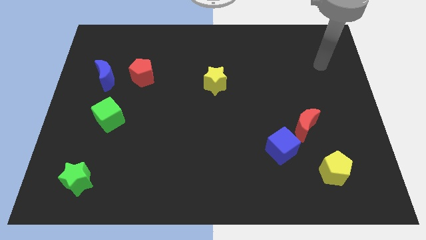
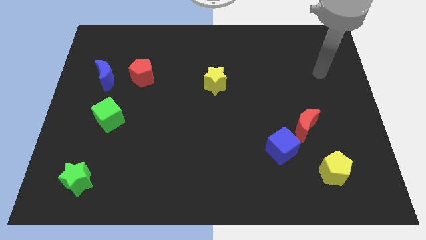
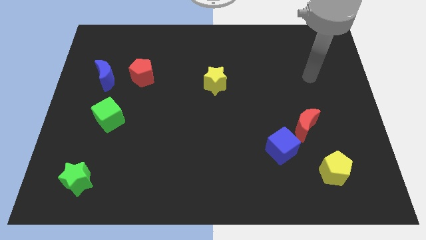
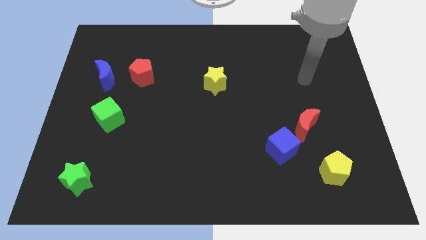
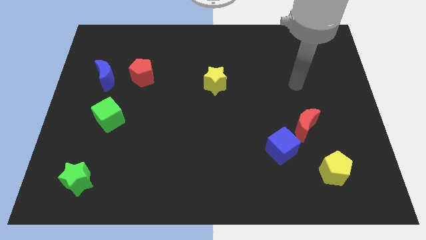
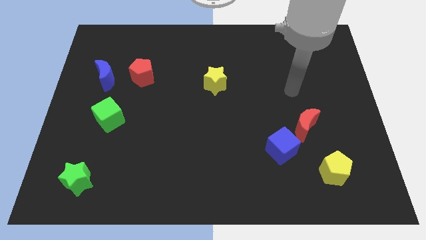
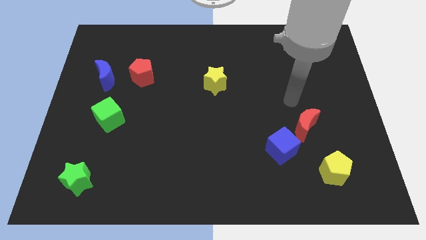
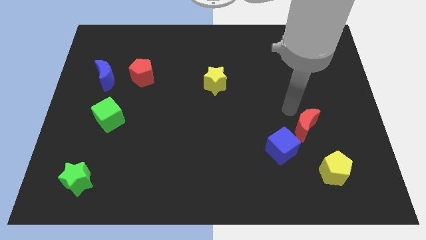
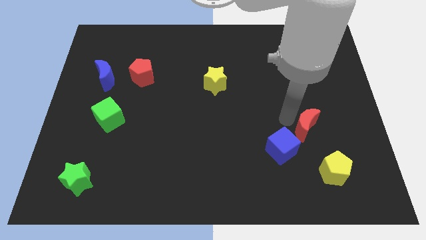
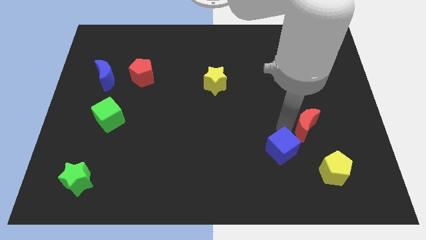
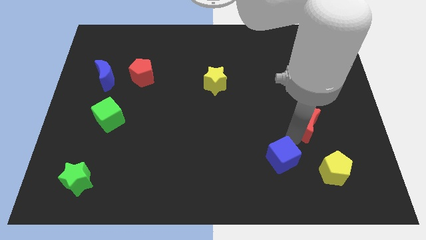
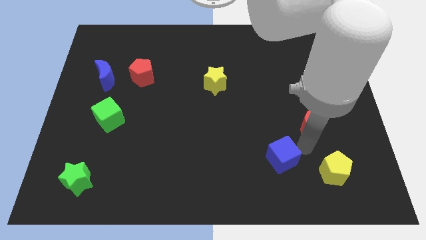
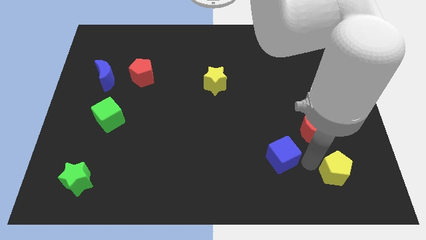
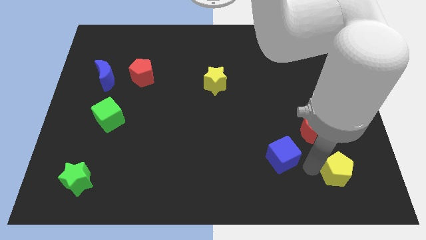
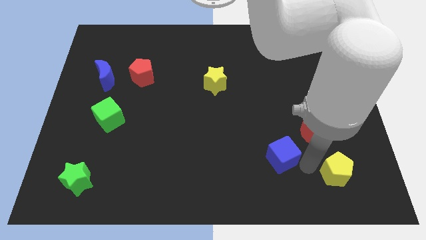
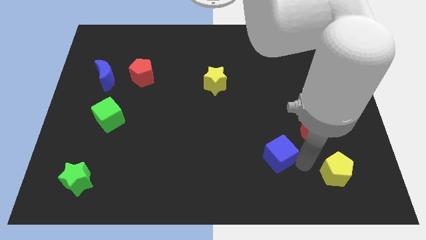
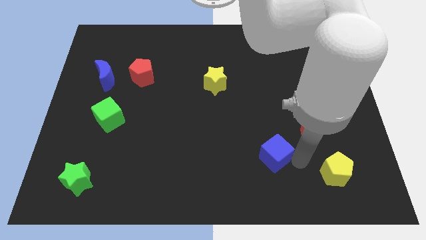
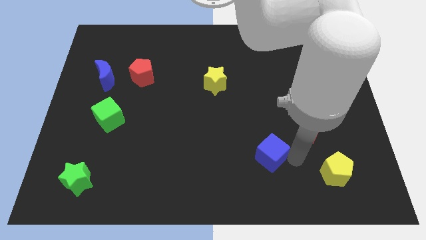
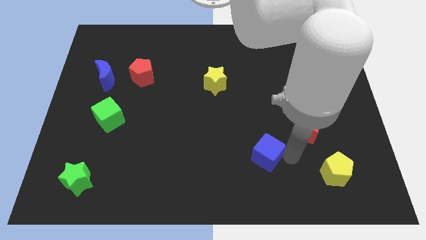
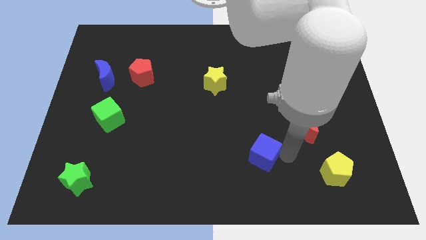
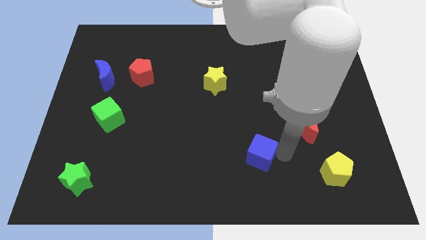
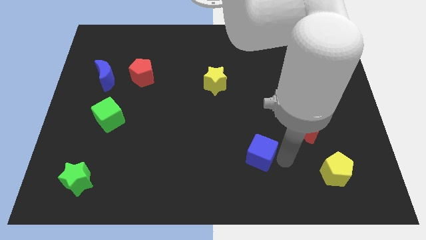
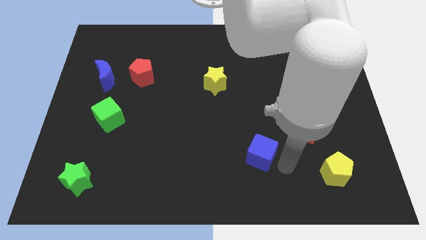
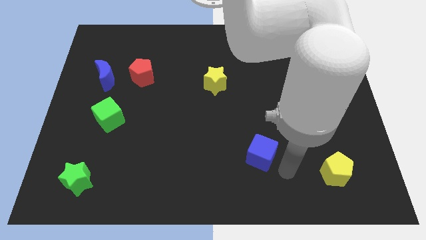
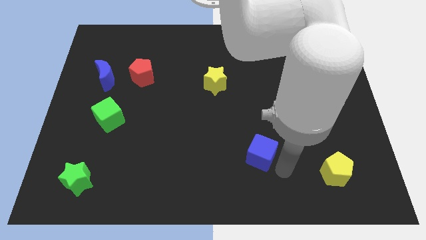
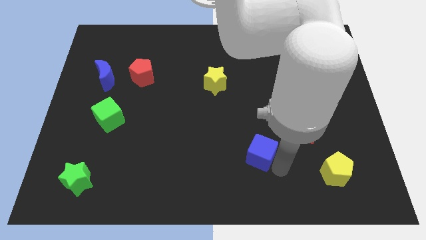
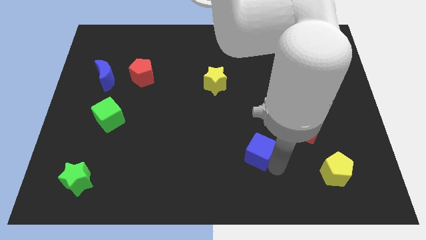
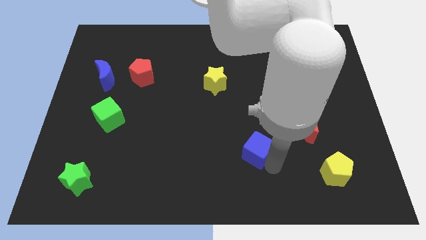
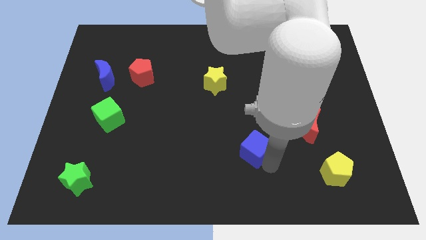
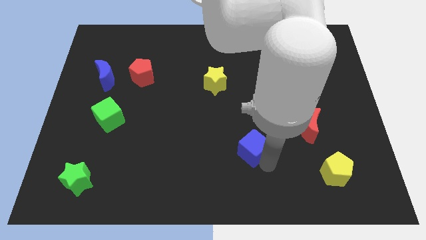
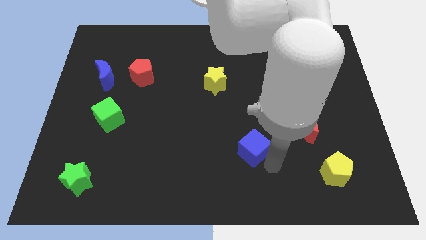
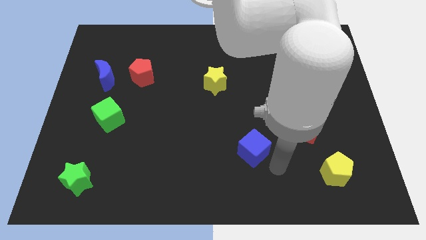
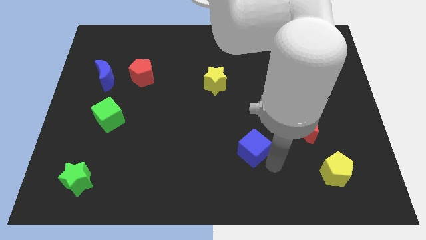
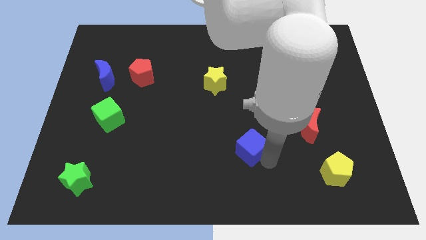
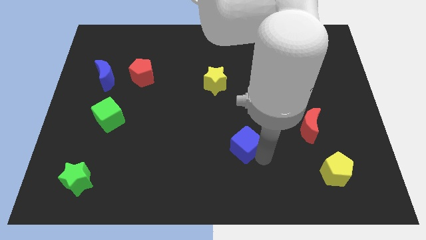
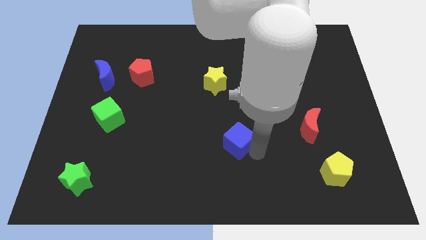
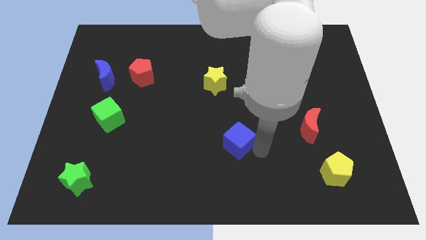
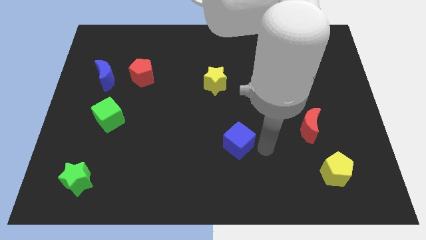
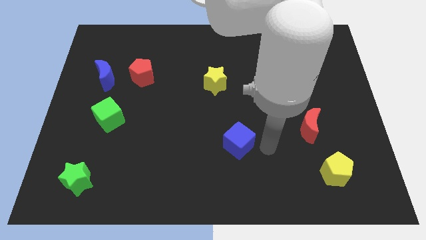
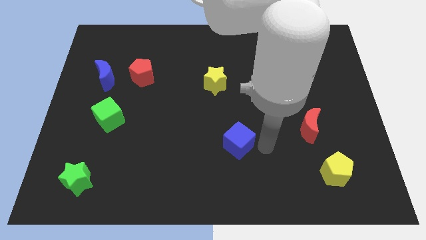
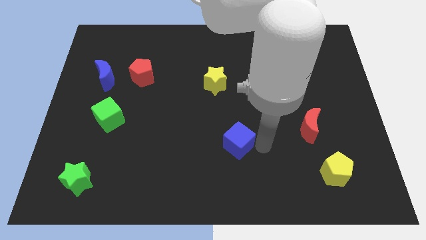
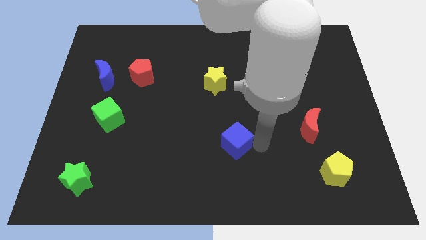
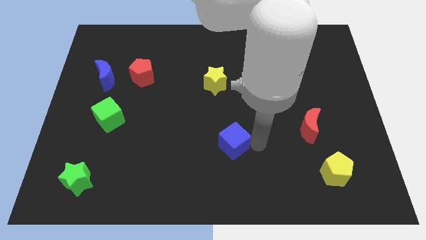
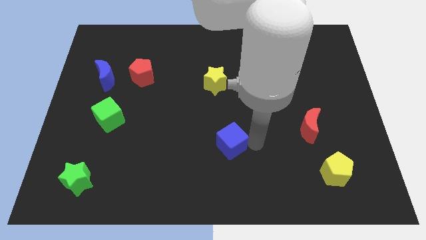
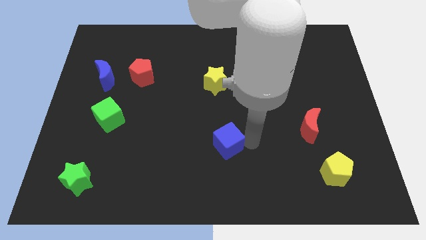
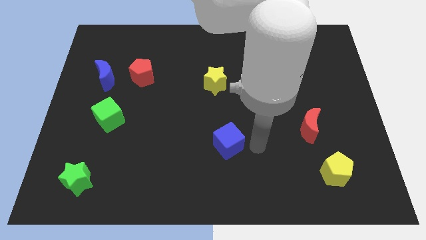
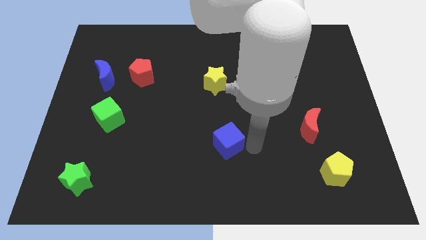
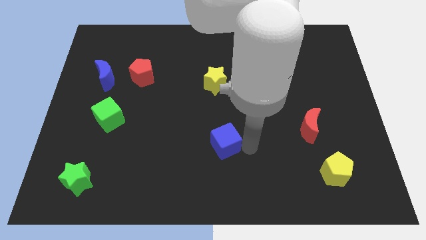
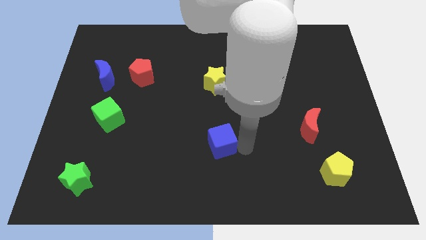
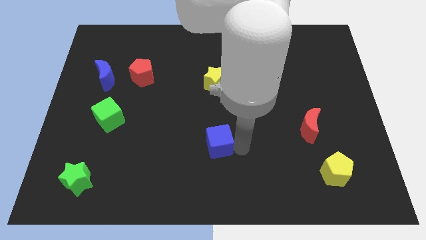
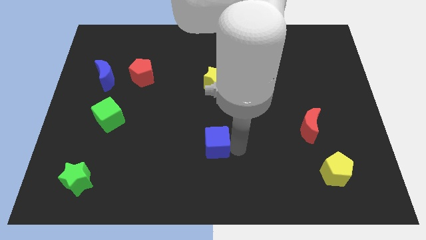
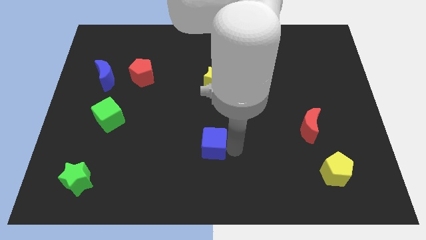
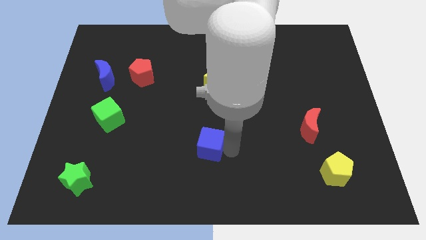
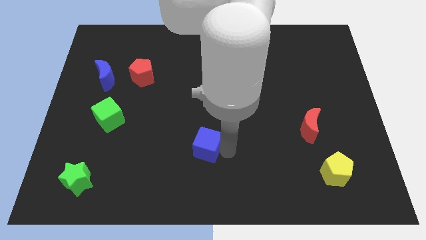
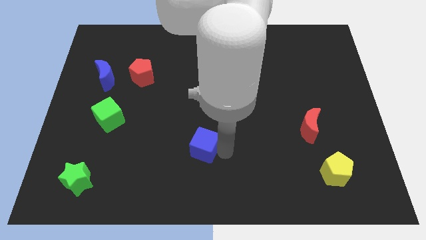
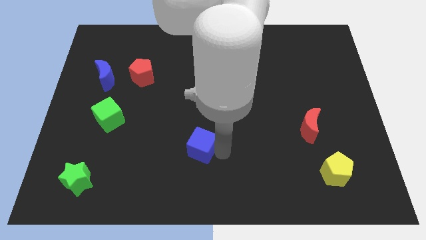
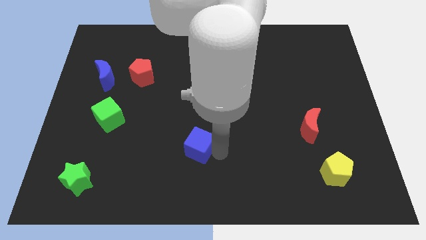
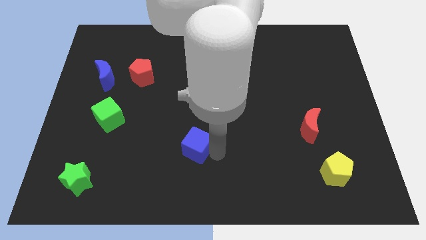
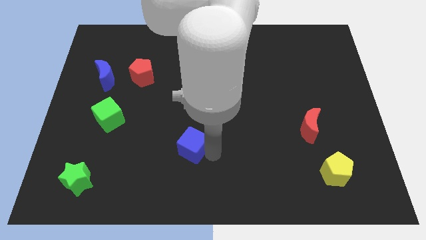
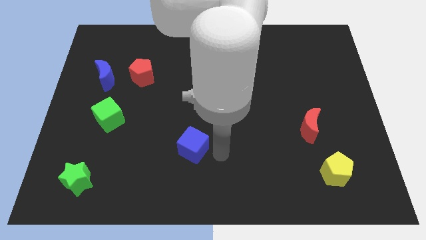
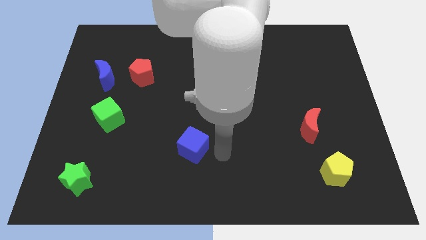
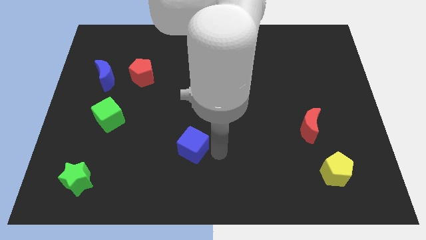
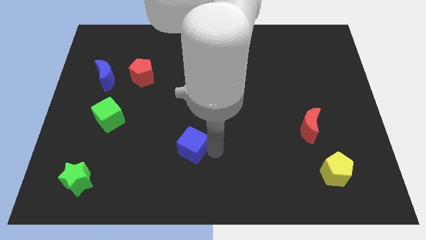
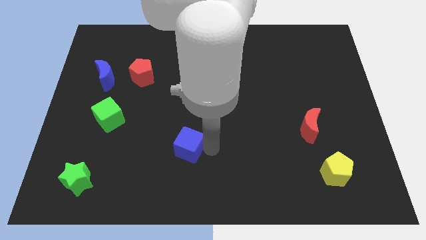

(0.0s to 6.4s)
slide the blue cube left
